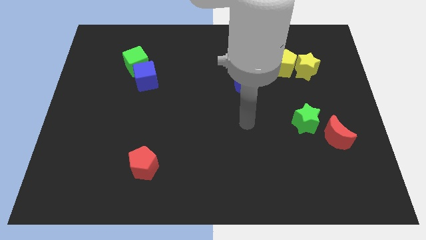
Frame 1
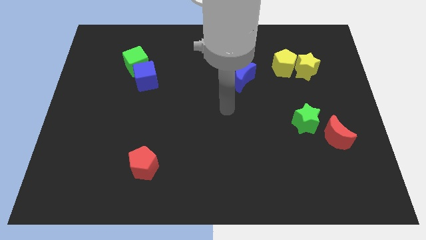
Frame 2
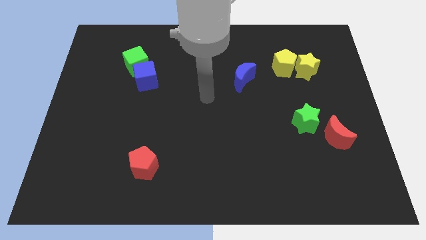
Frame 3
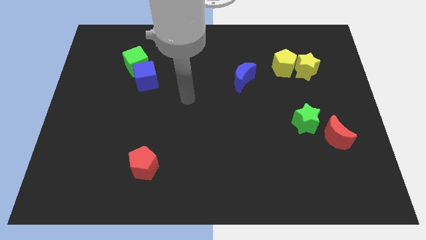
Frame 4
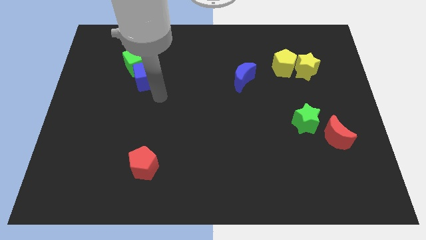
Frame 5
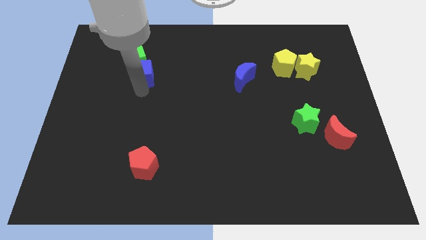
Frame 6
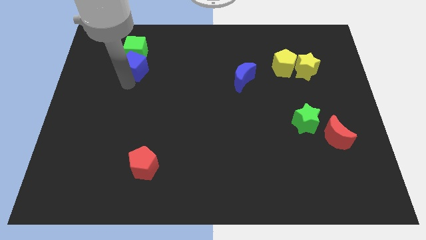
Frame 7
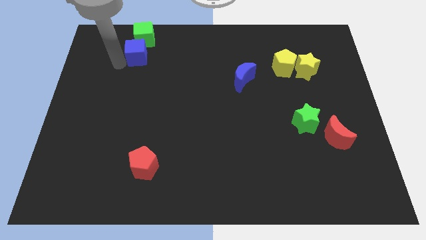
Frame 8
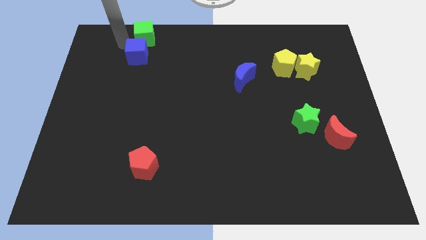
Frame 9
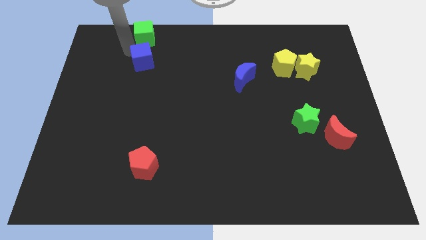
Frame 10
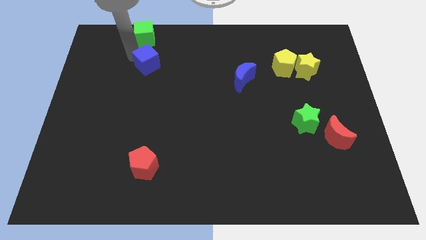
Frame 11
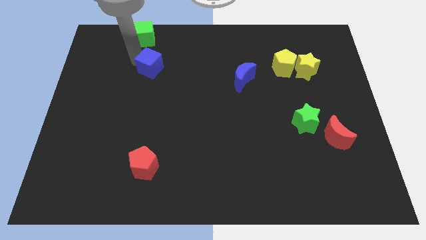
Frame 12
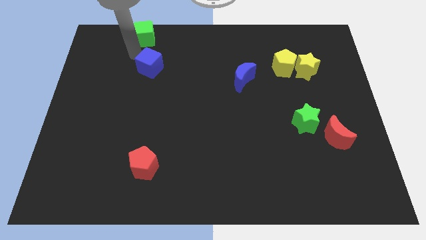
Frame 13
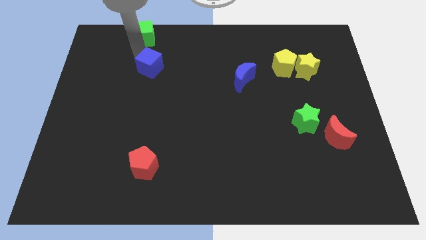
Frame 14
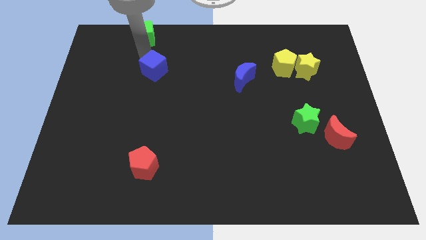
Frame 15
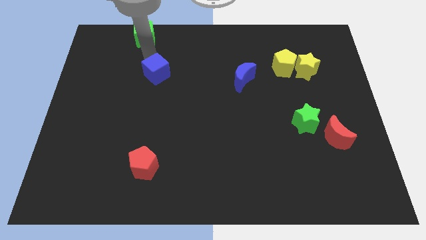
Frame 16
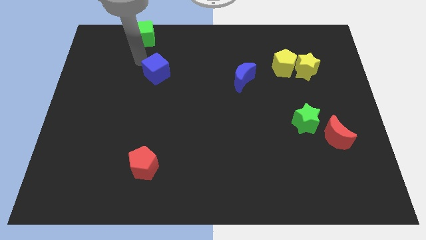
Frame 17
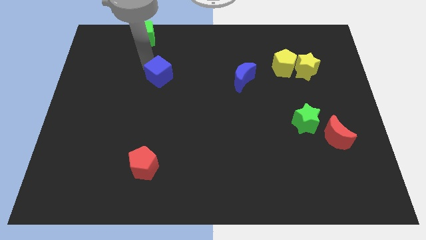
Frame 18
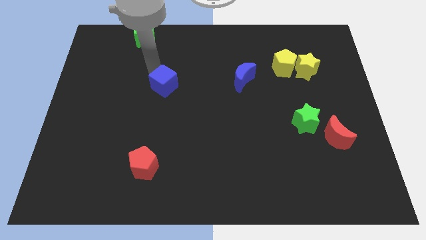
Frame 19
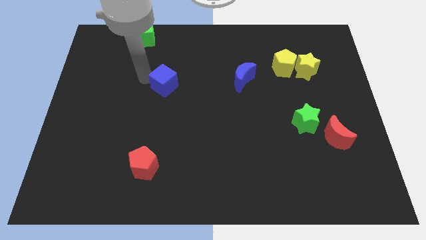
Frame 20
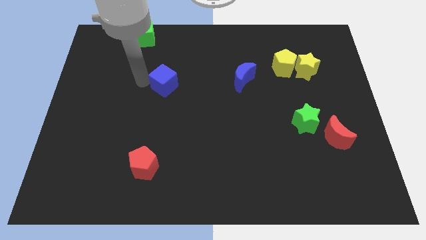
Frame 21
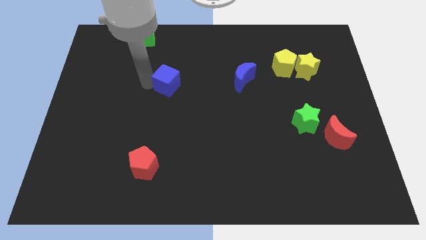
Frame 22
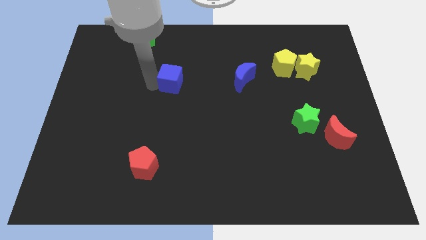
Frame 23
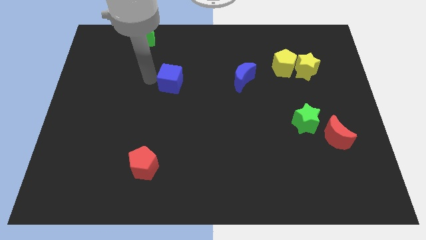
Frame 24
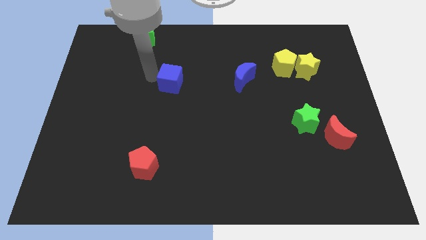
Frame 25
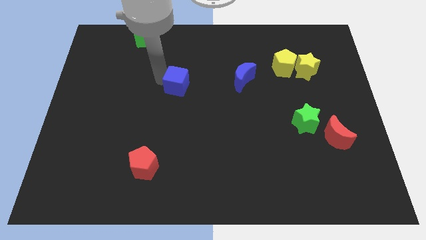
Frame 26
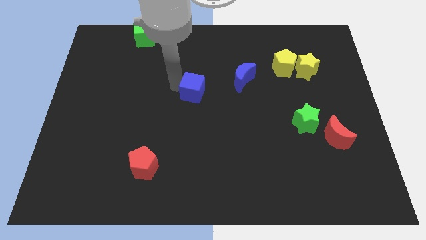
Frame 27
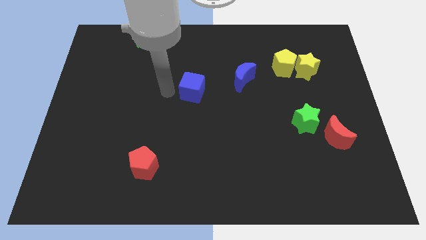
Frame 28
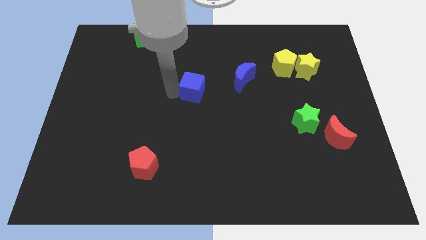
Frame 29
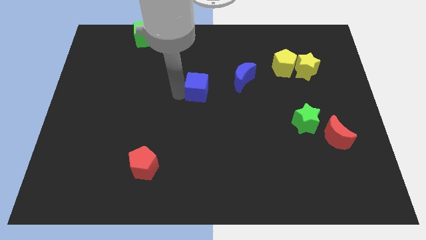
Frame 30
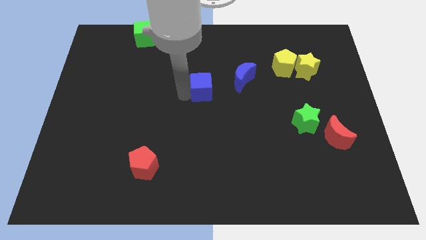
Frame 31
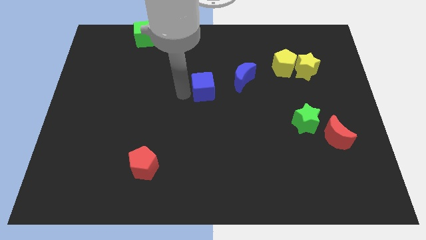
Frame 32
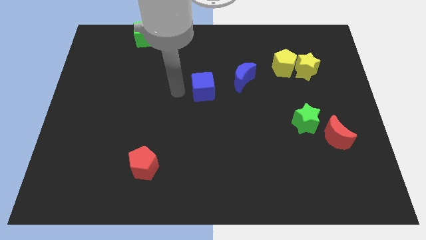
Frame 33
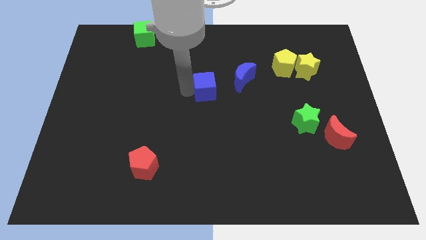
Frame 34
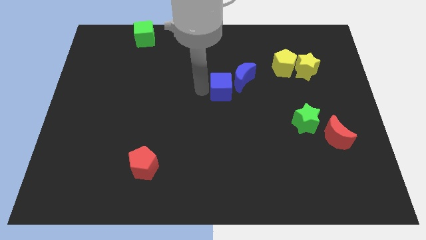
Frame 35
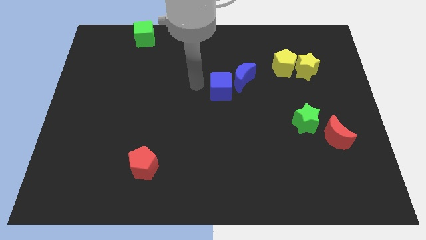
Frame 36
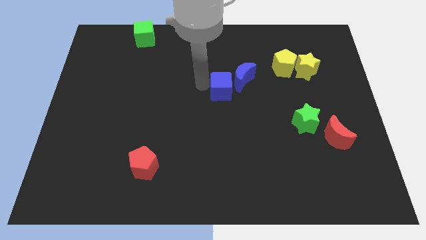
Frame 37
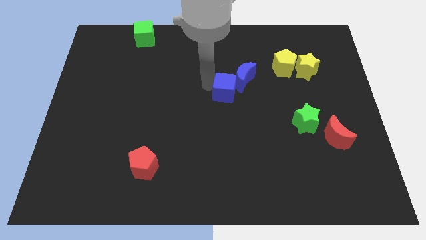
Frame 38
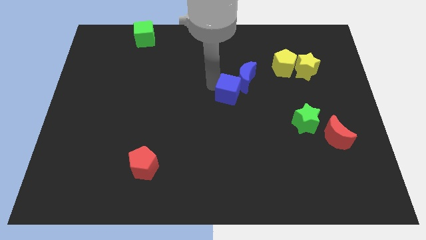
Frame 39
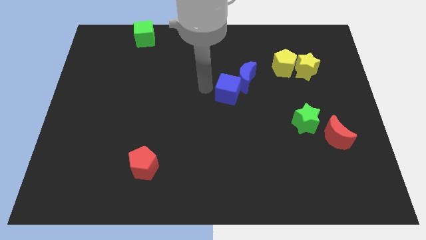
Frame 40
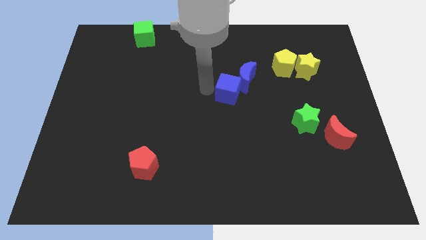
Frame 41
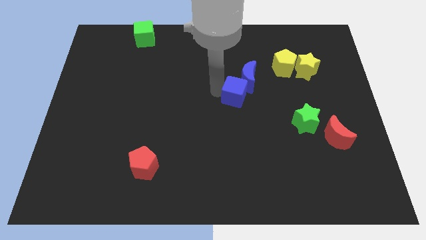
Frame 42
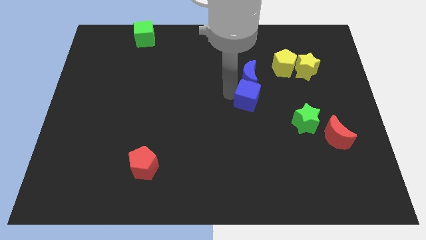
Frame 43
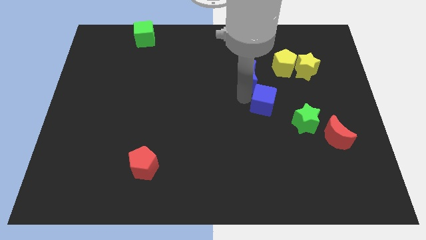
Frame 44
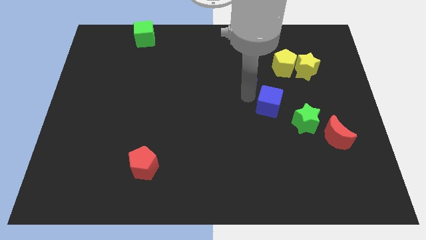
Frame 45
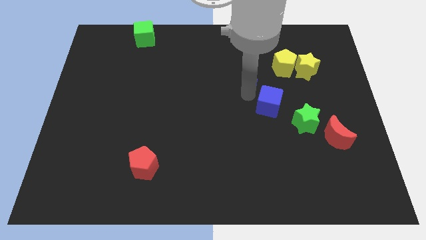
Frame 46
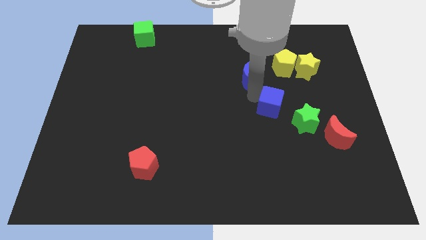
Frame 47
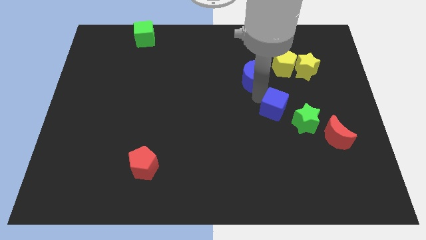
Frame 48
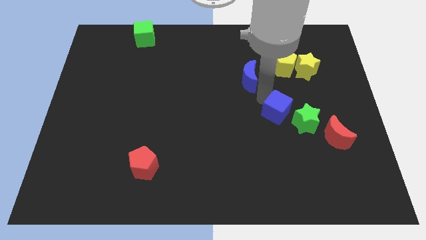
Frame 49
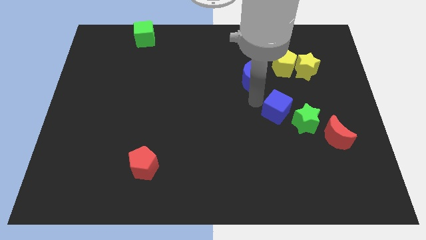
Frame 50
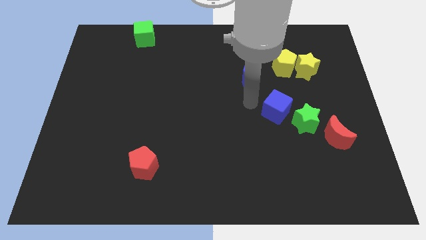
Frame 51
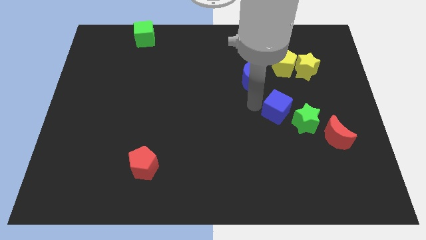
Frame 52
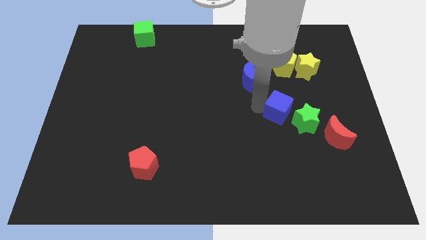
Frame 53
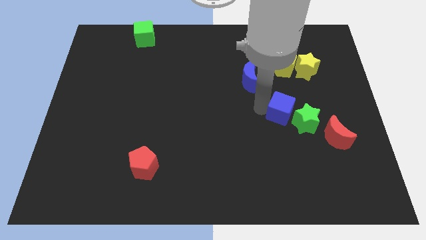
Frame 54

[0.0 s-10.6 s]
slide the blue cube next to the green star

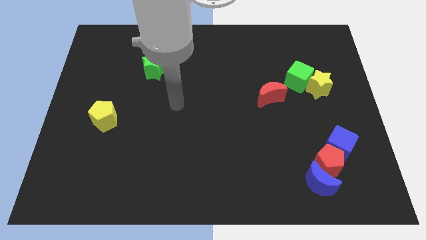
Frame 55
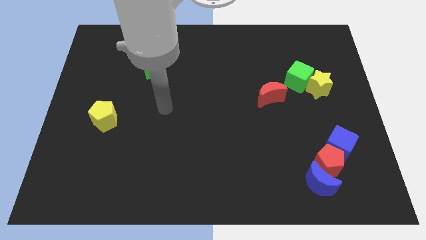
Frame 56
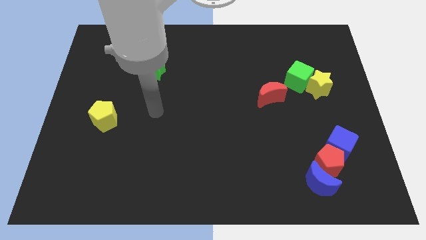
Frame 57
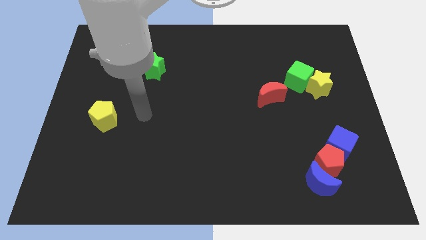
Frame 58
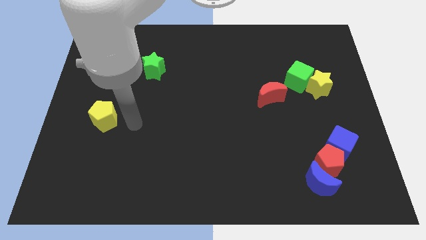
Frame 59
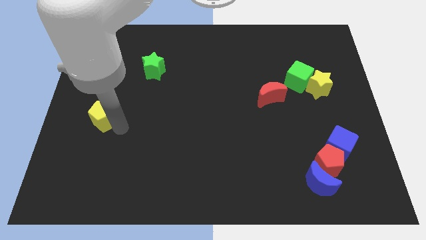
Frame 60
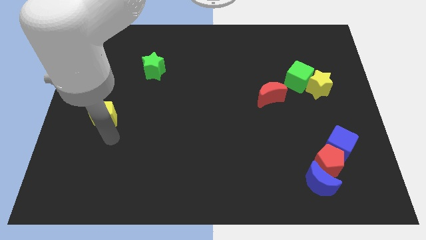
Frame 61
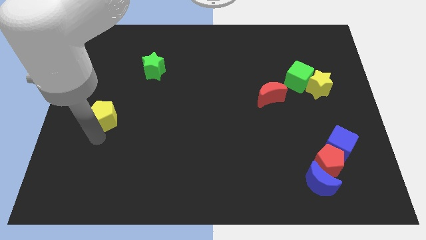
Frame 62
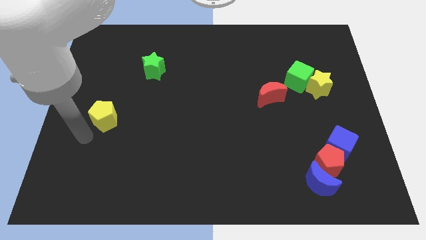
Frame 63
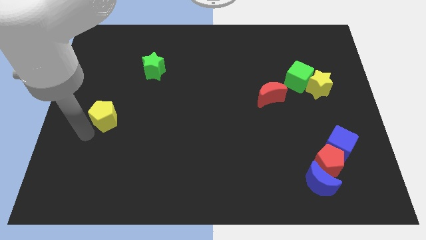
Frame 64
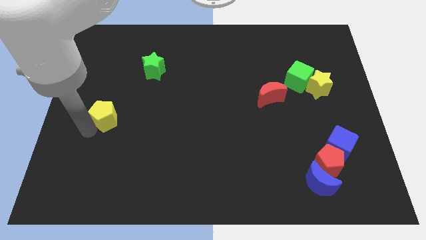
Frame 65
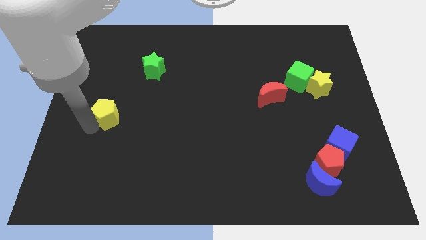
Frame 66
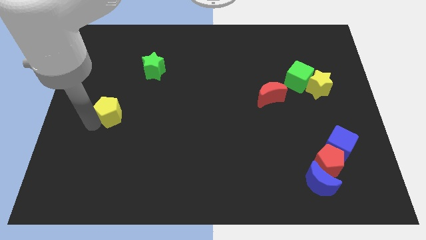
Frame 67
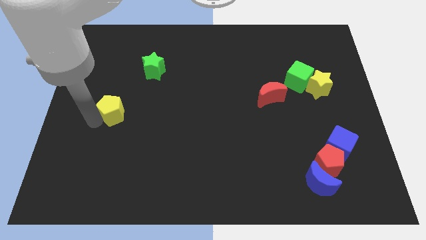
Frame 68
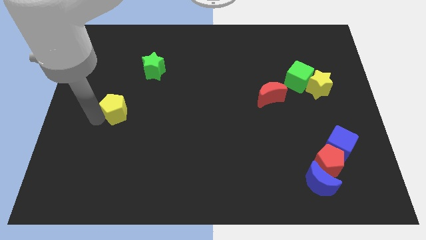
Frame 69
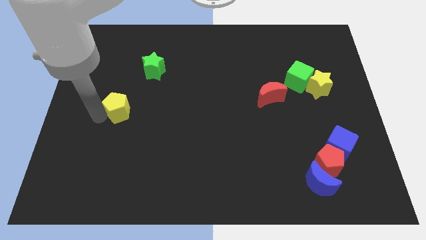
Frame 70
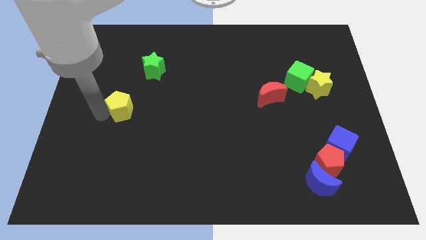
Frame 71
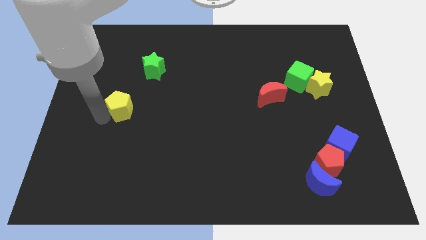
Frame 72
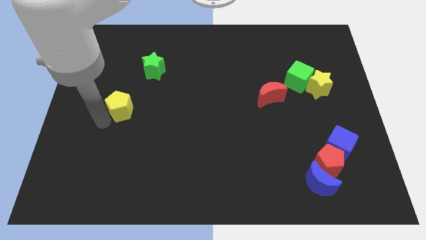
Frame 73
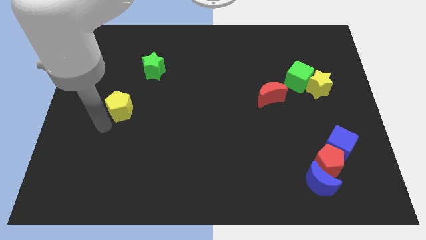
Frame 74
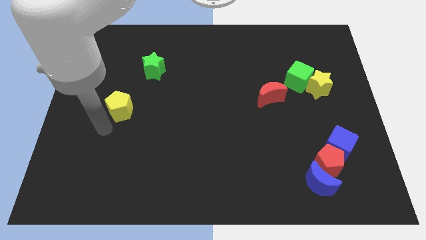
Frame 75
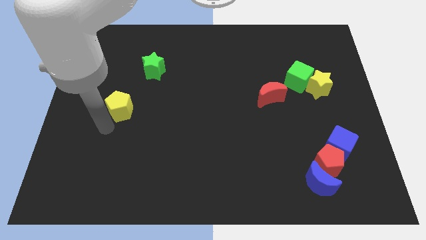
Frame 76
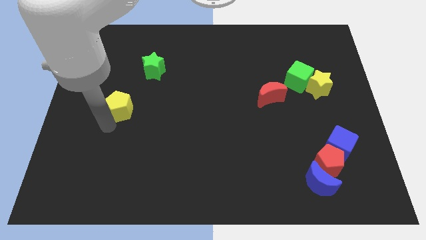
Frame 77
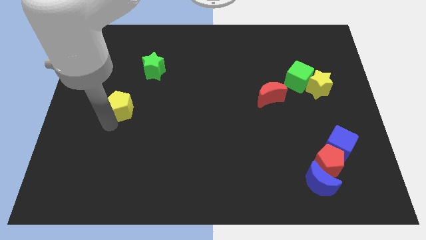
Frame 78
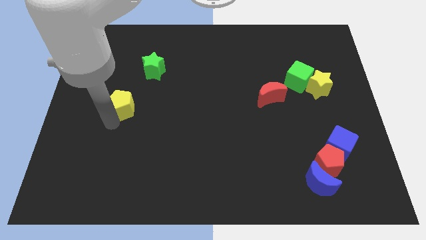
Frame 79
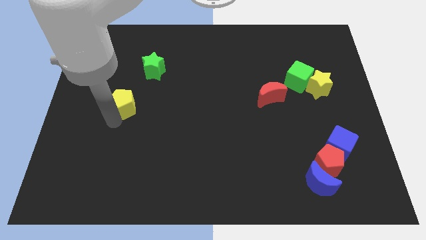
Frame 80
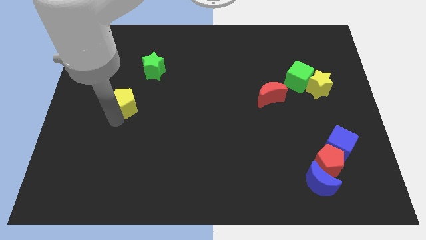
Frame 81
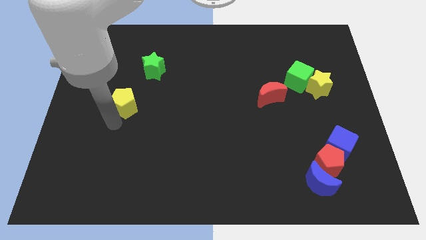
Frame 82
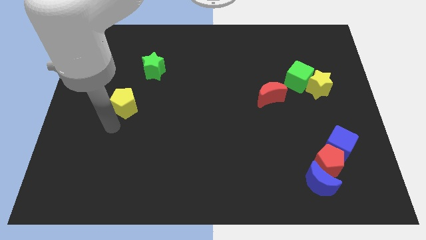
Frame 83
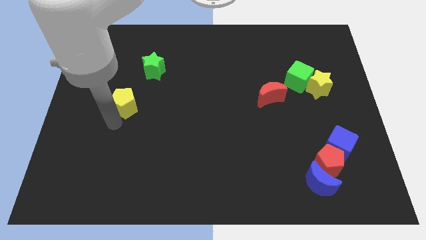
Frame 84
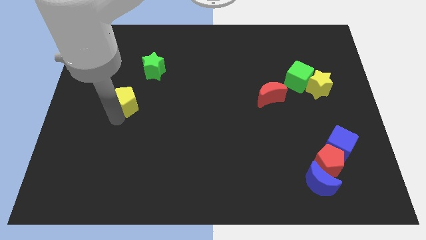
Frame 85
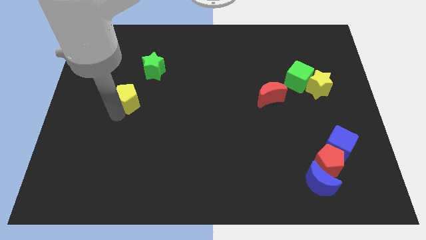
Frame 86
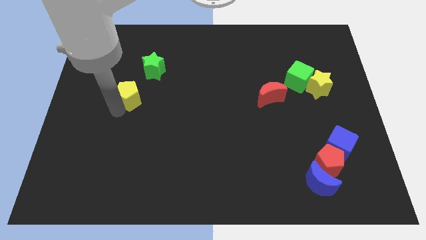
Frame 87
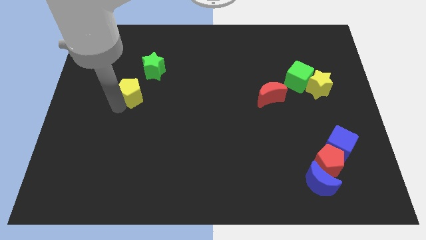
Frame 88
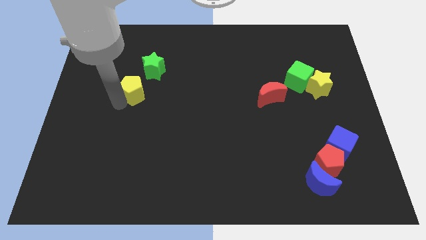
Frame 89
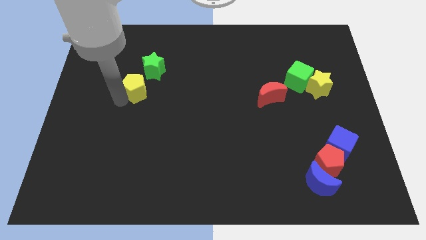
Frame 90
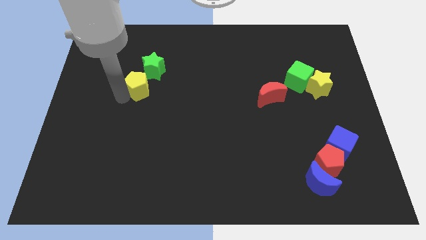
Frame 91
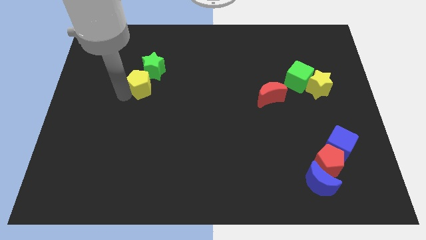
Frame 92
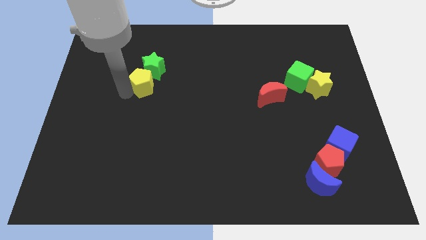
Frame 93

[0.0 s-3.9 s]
move the yellow pentagon towards the green star
